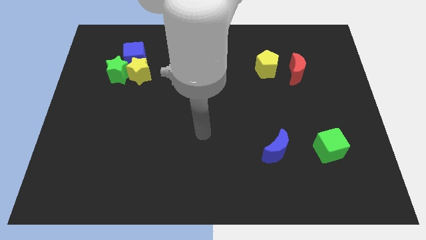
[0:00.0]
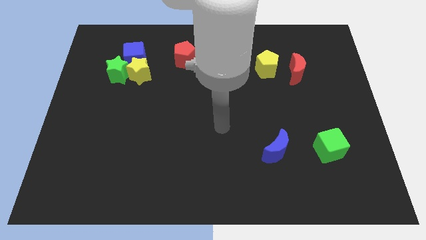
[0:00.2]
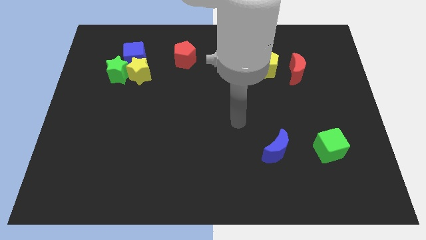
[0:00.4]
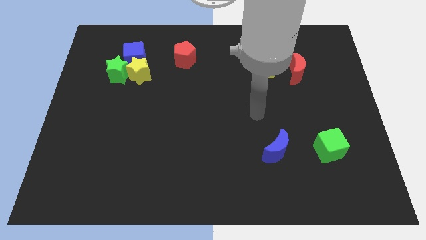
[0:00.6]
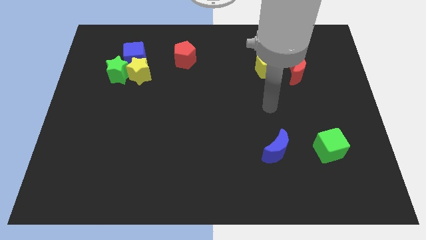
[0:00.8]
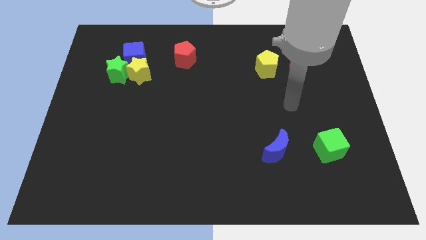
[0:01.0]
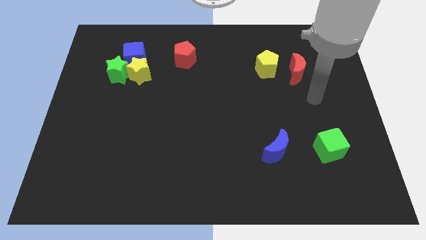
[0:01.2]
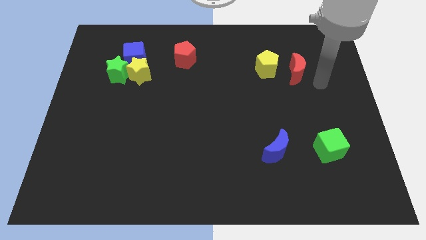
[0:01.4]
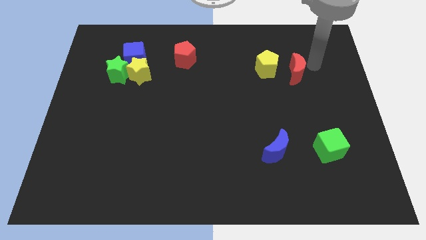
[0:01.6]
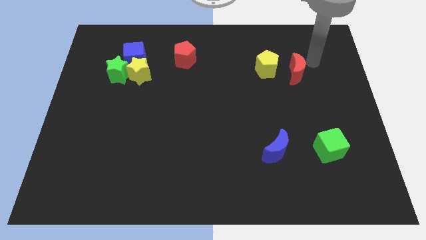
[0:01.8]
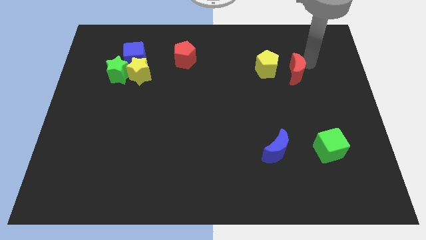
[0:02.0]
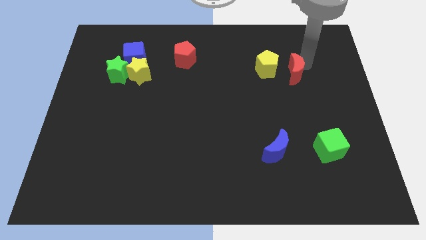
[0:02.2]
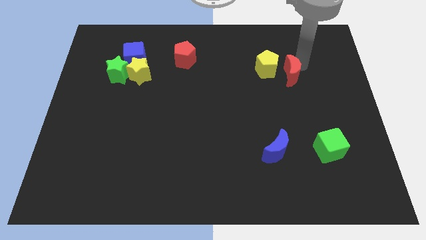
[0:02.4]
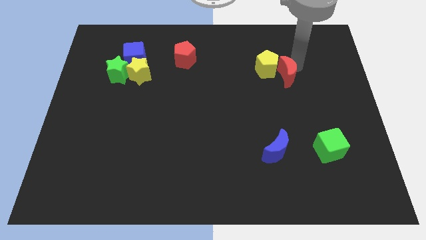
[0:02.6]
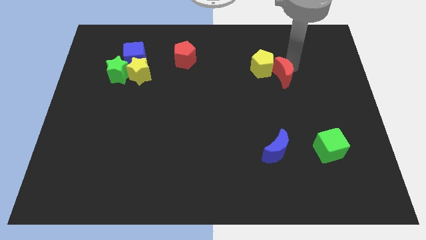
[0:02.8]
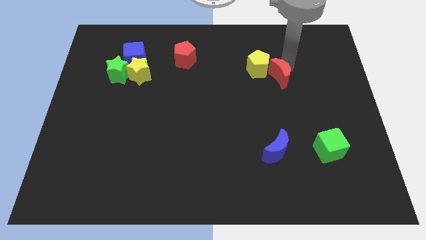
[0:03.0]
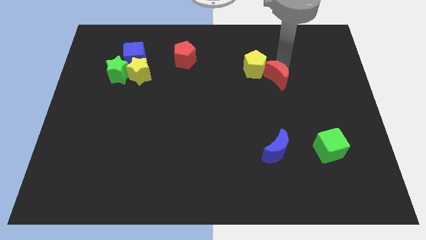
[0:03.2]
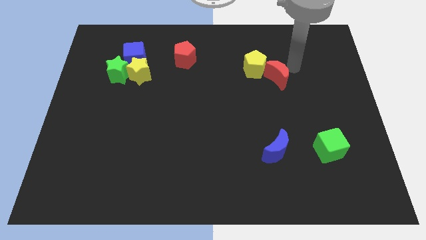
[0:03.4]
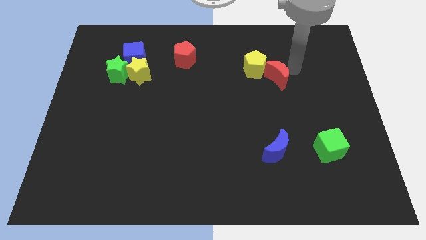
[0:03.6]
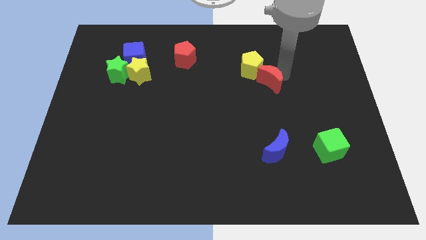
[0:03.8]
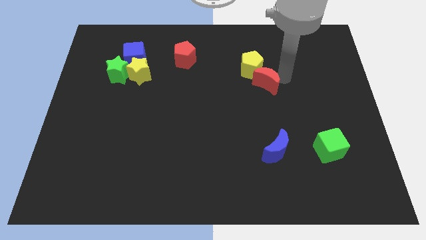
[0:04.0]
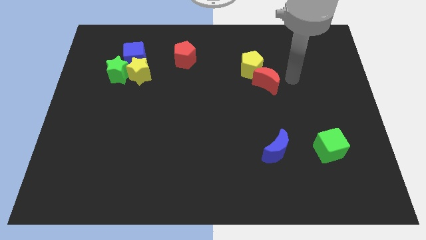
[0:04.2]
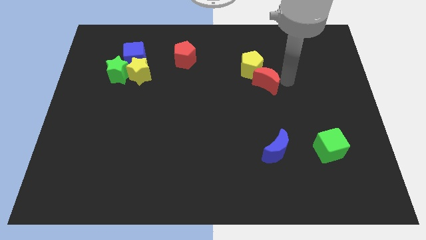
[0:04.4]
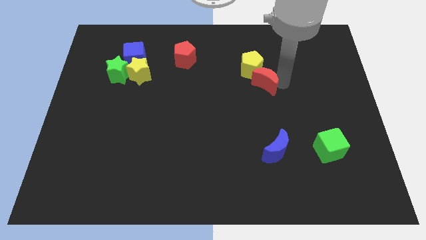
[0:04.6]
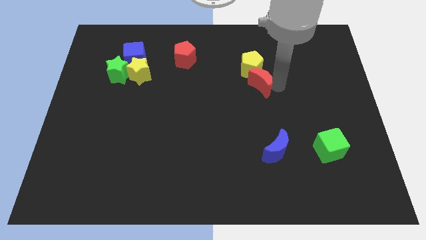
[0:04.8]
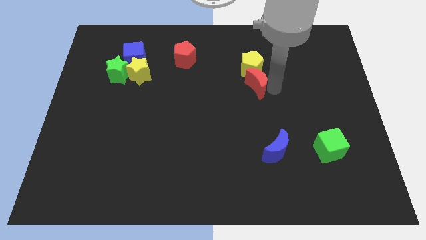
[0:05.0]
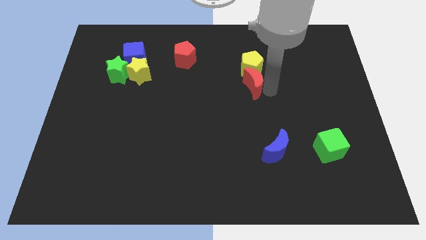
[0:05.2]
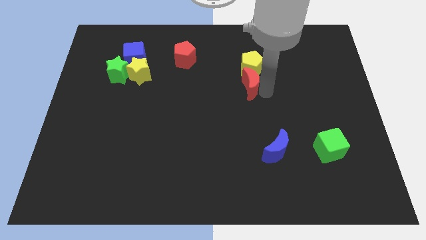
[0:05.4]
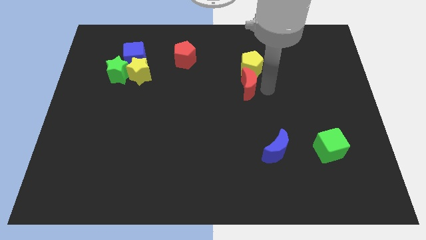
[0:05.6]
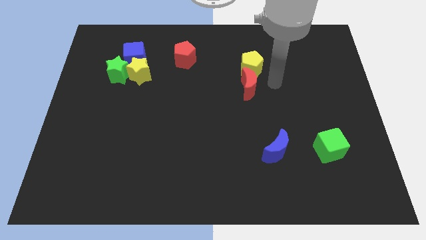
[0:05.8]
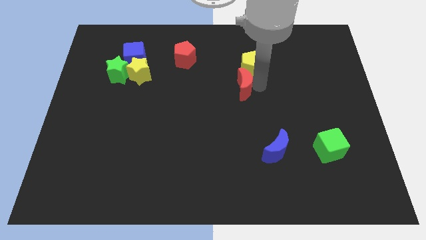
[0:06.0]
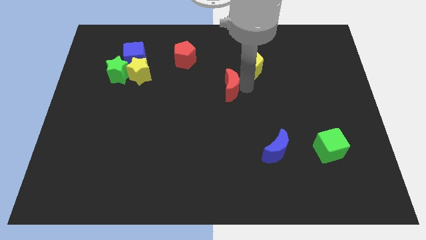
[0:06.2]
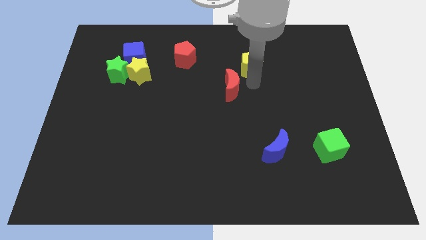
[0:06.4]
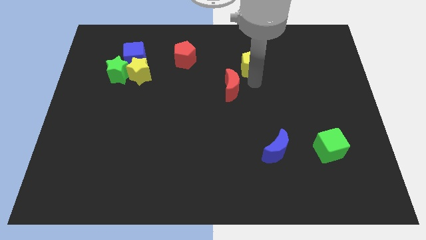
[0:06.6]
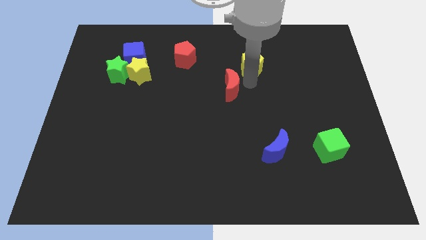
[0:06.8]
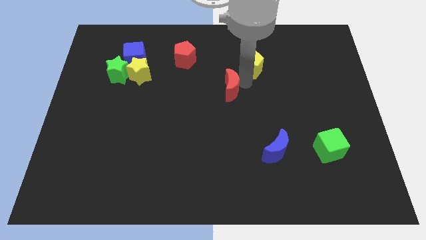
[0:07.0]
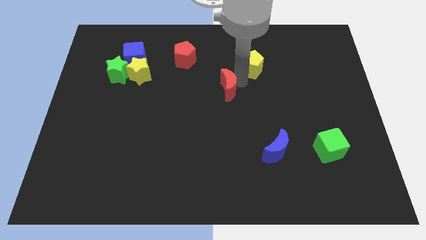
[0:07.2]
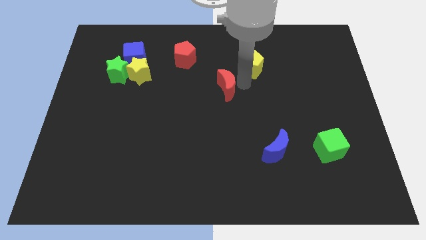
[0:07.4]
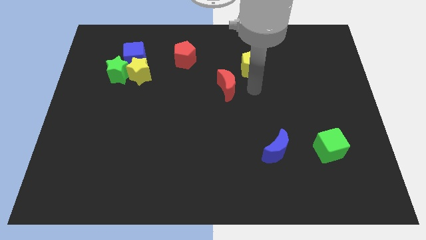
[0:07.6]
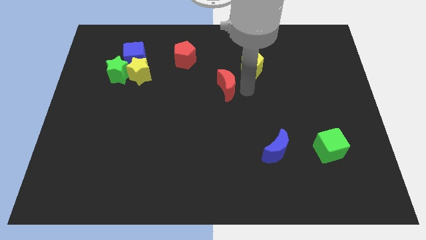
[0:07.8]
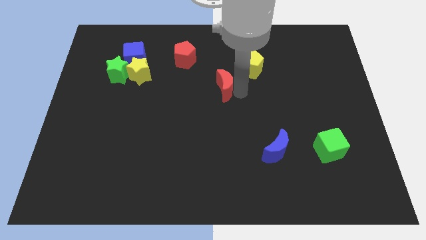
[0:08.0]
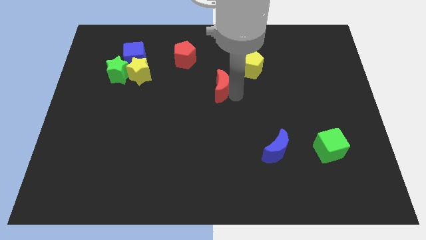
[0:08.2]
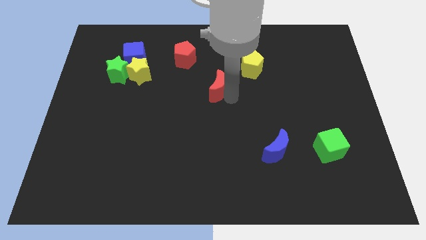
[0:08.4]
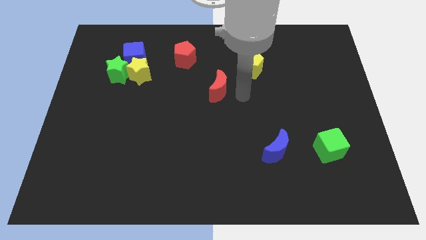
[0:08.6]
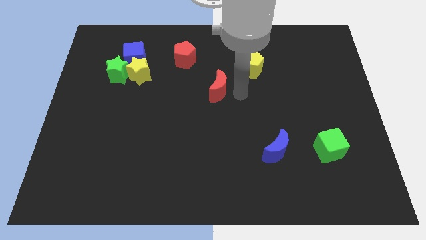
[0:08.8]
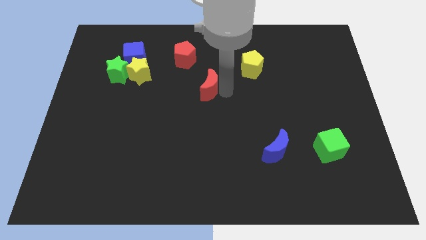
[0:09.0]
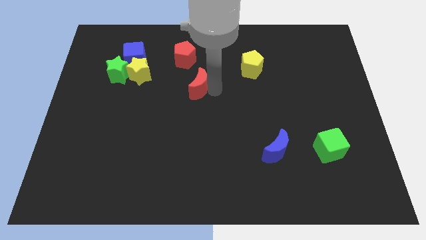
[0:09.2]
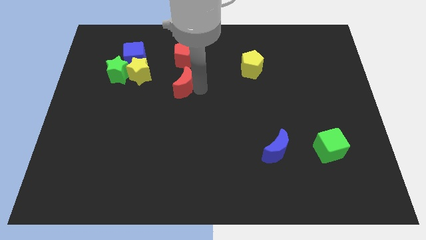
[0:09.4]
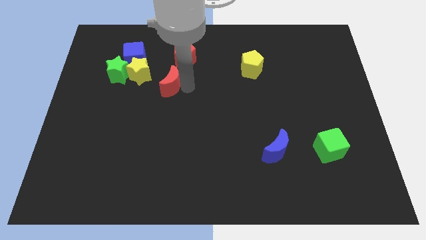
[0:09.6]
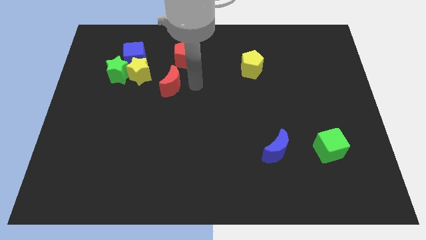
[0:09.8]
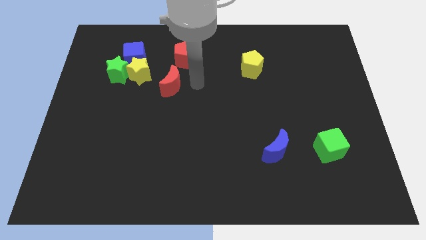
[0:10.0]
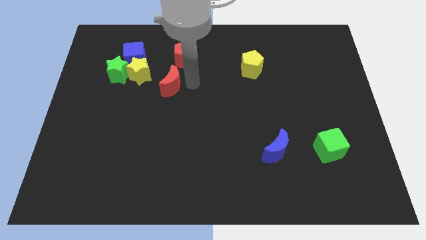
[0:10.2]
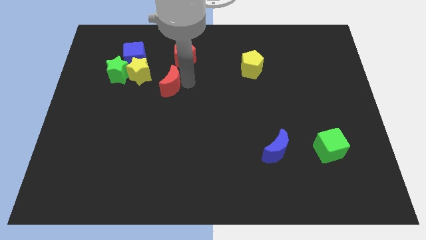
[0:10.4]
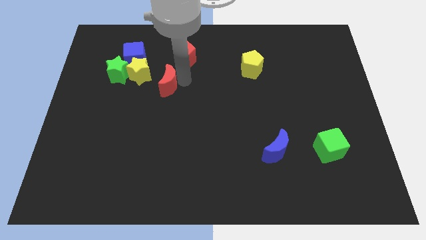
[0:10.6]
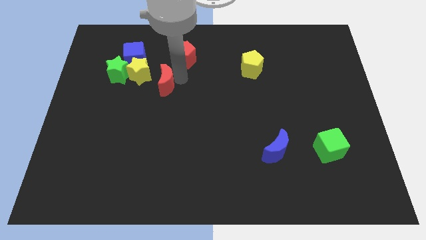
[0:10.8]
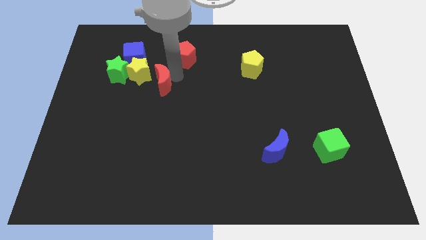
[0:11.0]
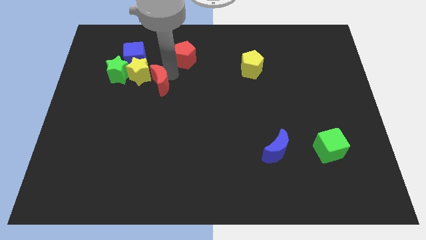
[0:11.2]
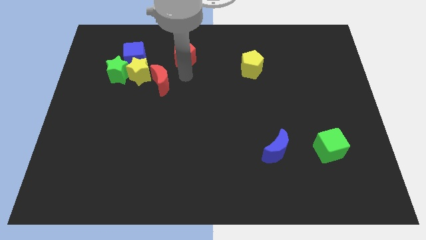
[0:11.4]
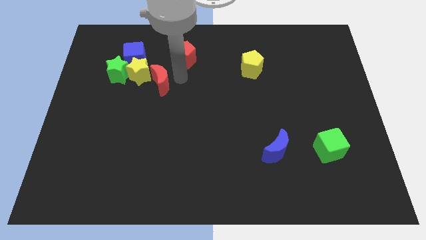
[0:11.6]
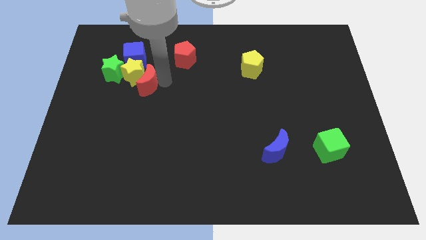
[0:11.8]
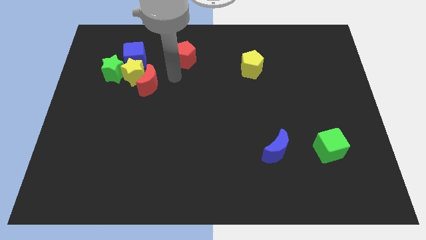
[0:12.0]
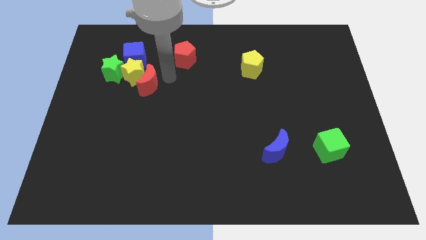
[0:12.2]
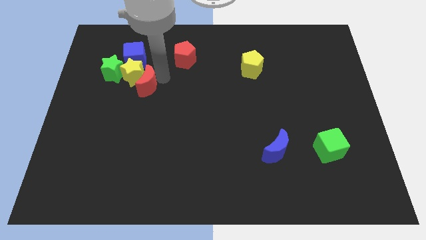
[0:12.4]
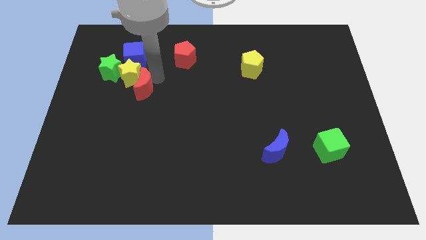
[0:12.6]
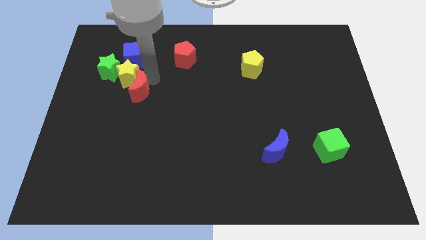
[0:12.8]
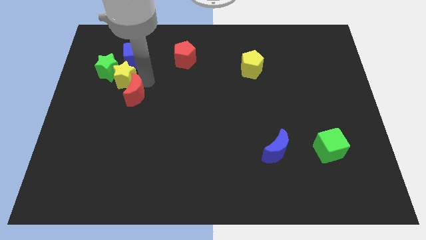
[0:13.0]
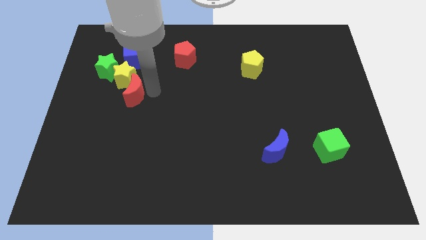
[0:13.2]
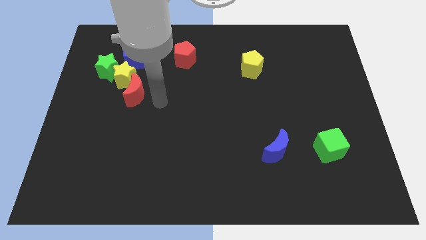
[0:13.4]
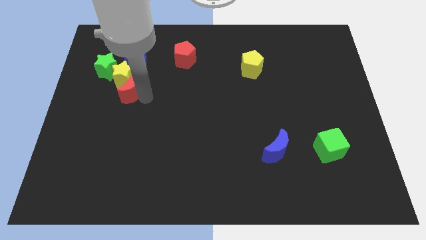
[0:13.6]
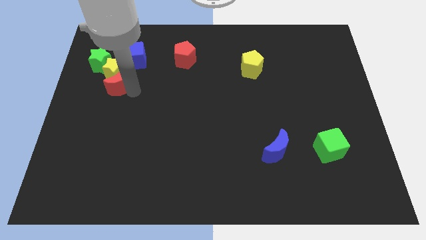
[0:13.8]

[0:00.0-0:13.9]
put the red moon to the bottom left side of the blue cube
